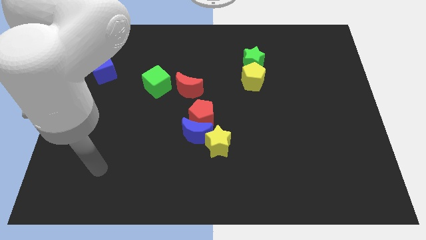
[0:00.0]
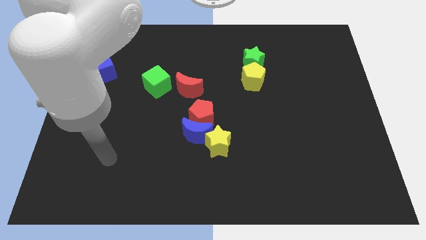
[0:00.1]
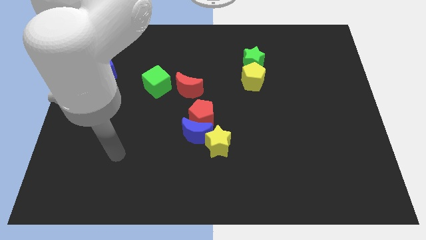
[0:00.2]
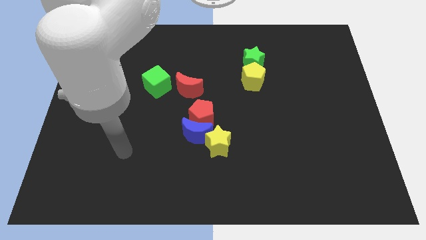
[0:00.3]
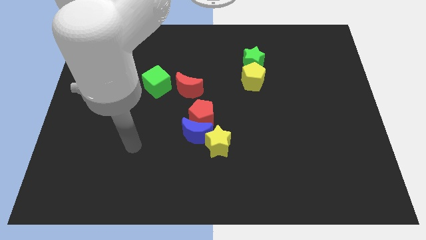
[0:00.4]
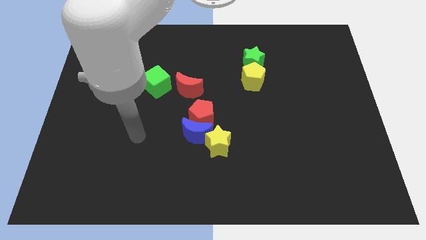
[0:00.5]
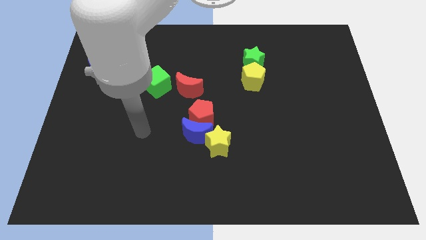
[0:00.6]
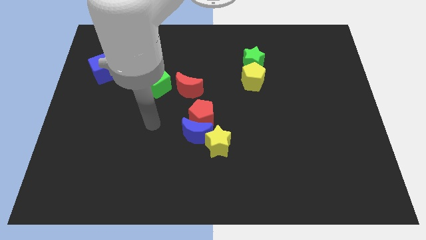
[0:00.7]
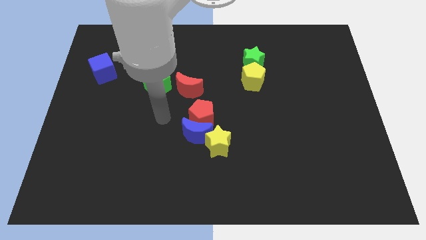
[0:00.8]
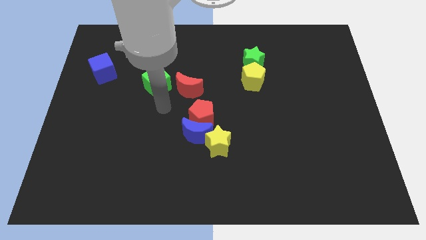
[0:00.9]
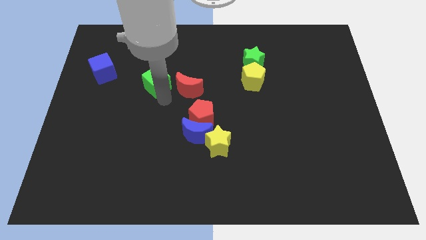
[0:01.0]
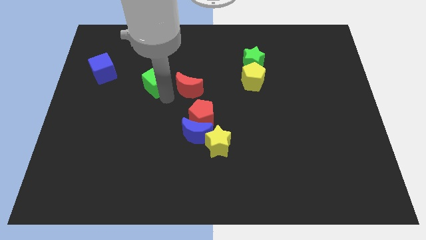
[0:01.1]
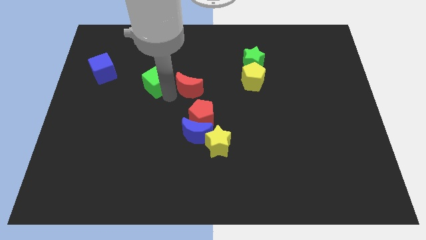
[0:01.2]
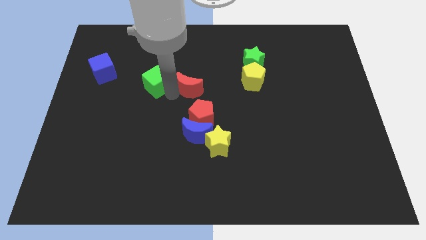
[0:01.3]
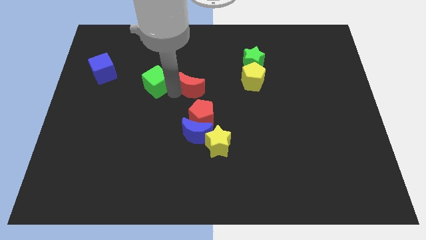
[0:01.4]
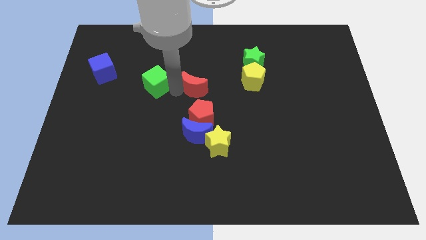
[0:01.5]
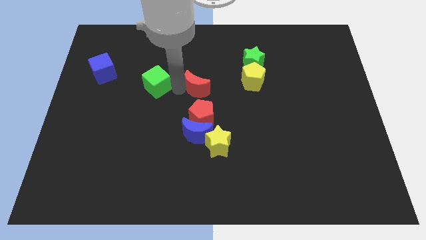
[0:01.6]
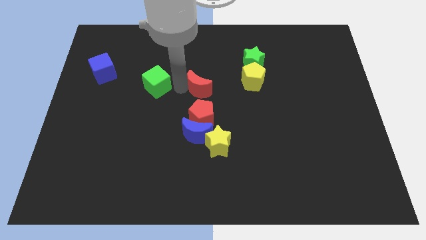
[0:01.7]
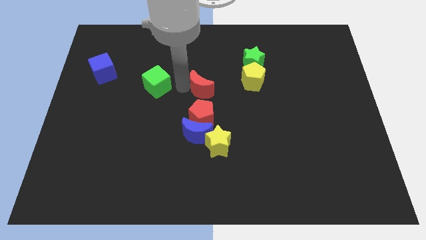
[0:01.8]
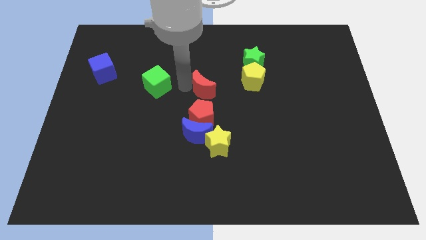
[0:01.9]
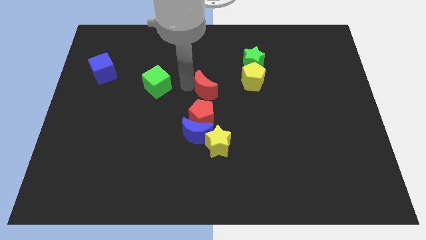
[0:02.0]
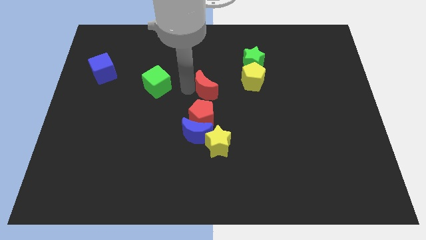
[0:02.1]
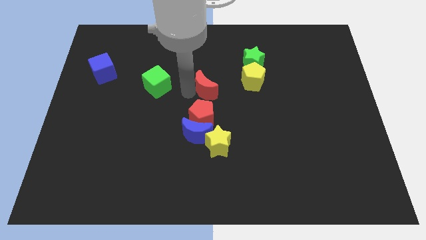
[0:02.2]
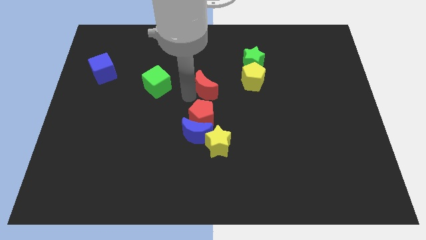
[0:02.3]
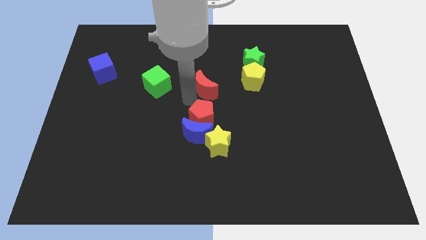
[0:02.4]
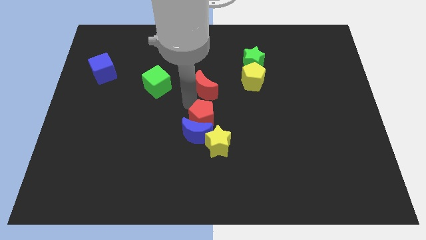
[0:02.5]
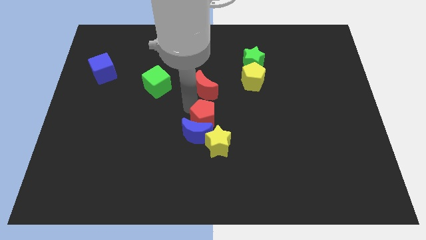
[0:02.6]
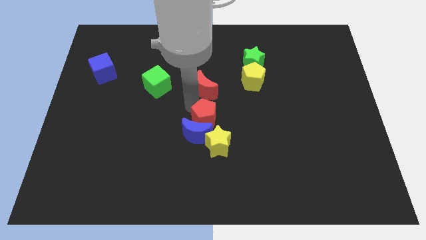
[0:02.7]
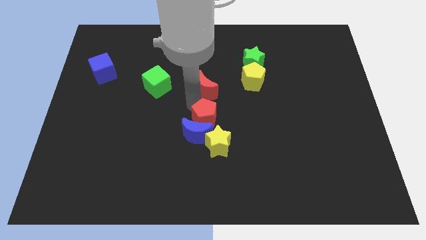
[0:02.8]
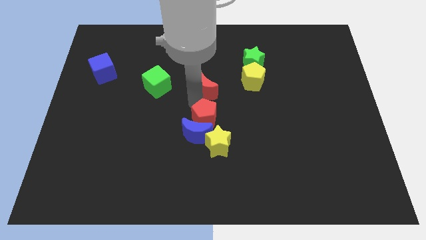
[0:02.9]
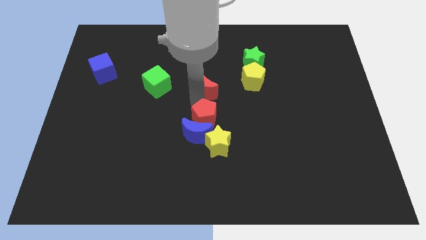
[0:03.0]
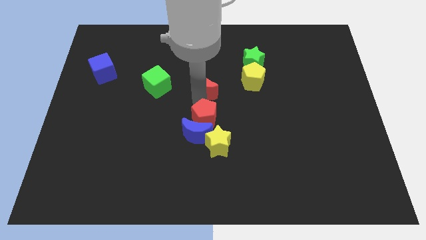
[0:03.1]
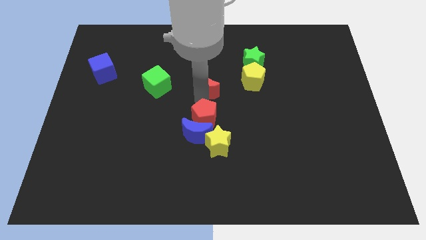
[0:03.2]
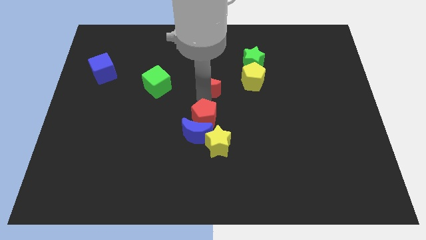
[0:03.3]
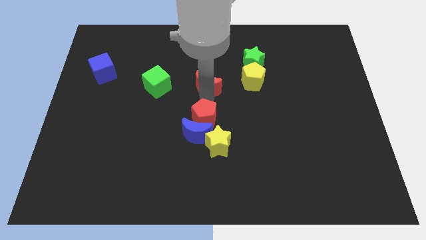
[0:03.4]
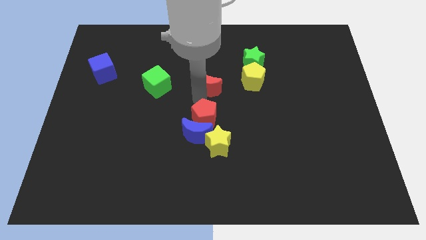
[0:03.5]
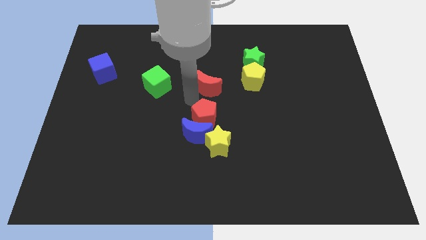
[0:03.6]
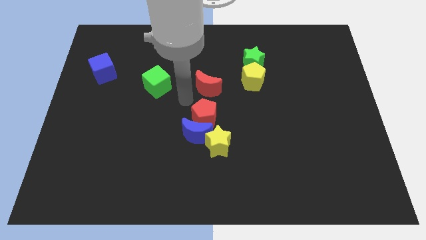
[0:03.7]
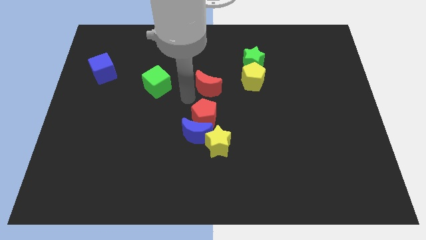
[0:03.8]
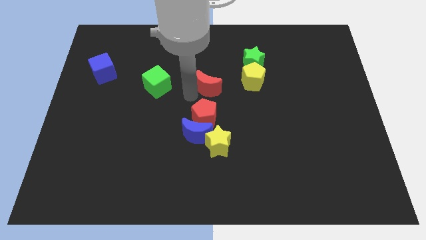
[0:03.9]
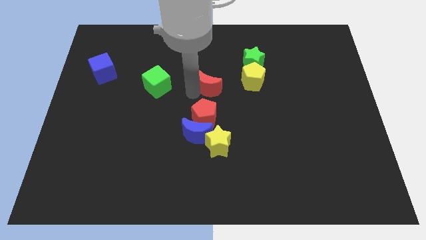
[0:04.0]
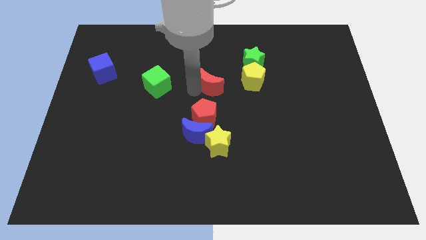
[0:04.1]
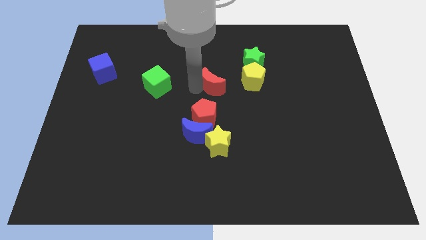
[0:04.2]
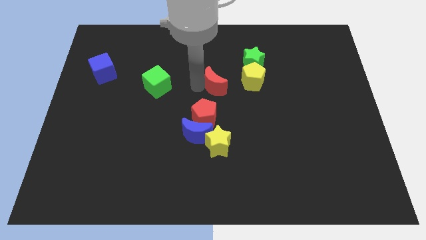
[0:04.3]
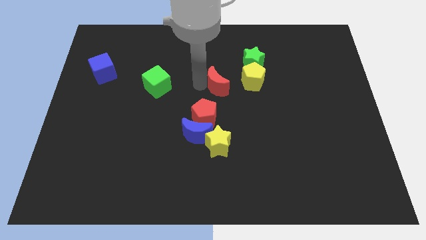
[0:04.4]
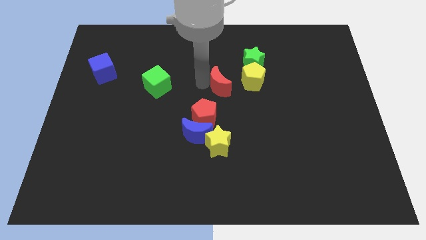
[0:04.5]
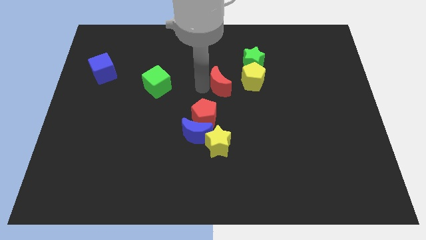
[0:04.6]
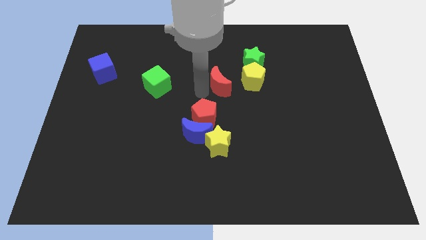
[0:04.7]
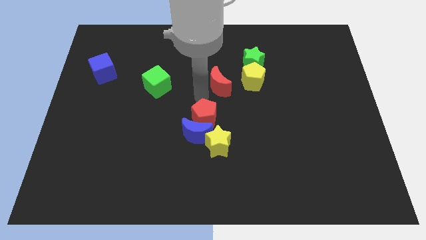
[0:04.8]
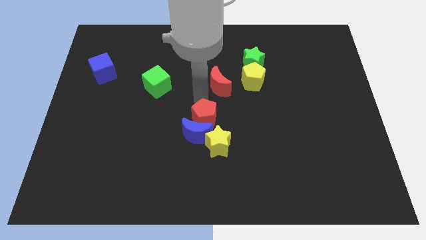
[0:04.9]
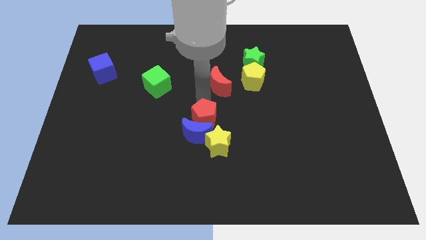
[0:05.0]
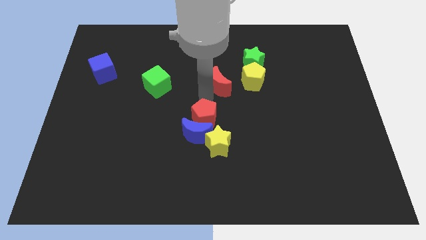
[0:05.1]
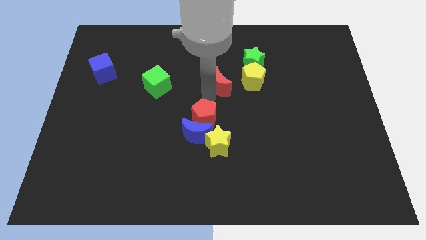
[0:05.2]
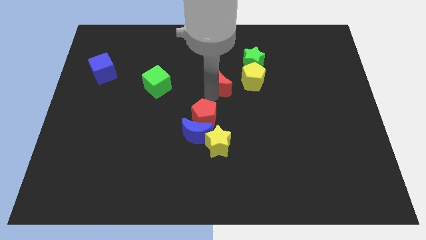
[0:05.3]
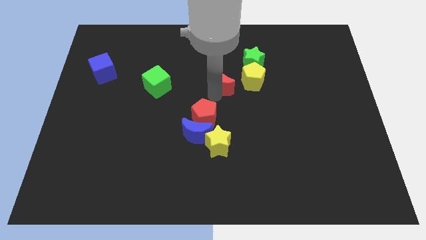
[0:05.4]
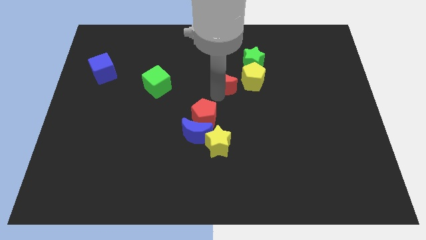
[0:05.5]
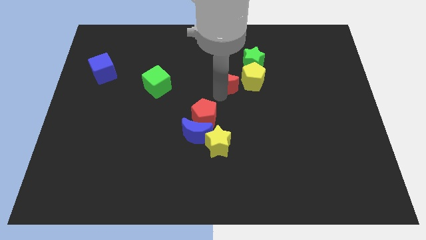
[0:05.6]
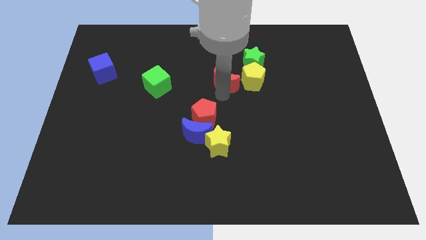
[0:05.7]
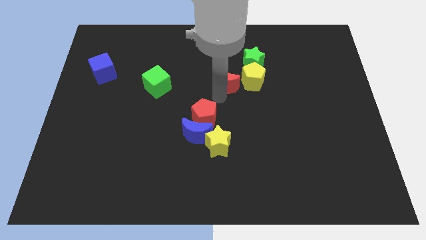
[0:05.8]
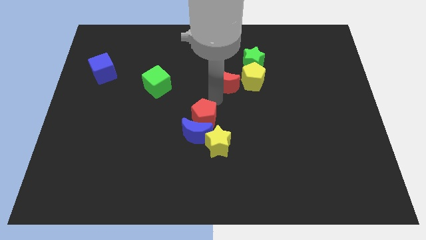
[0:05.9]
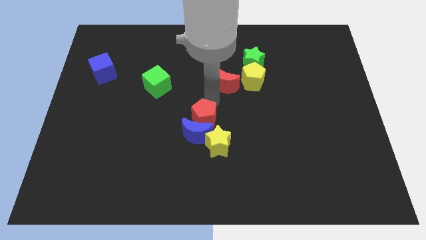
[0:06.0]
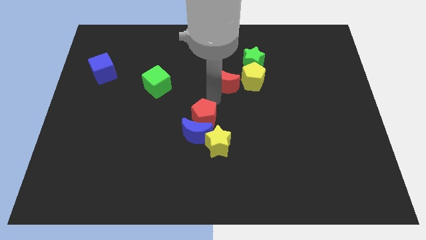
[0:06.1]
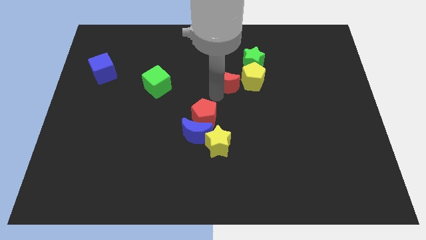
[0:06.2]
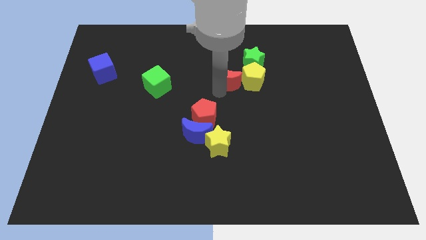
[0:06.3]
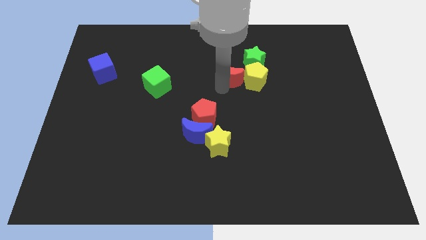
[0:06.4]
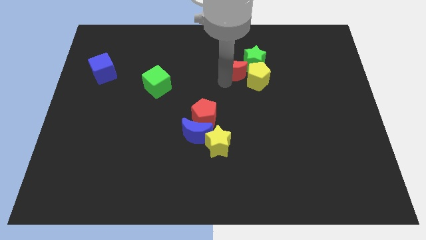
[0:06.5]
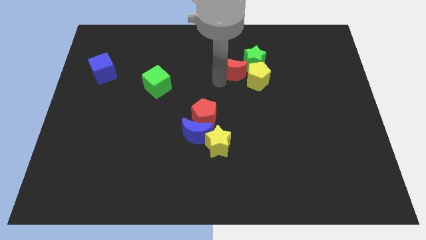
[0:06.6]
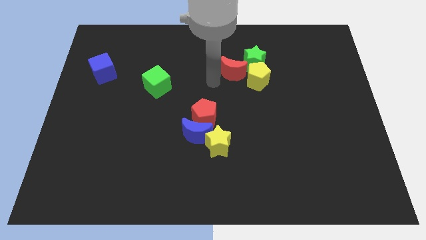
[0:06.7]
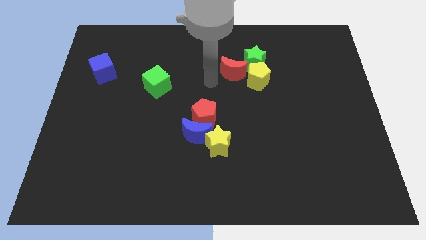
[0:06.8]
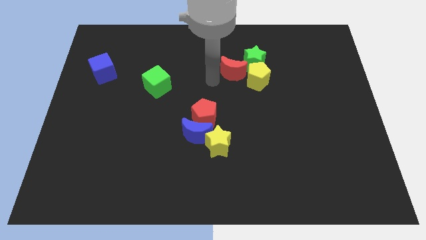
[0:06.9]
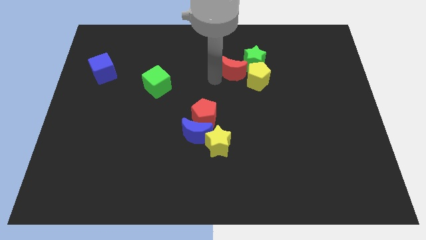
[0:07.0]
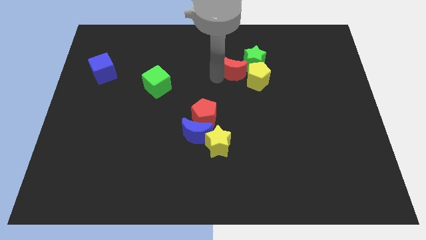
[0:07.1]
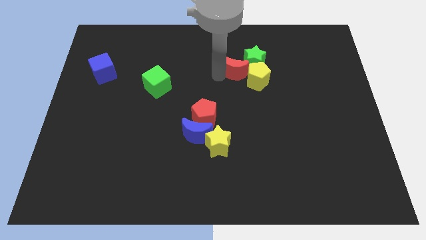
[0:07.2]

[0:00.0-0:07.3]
move the red moon to the green star
